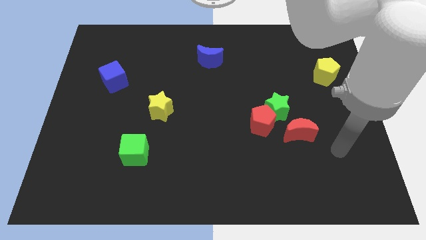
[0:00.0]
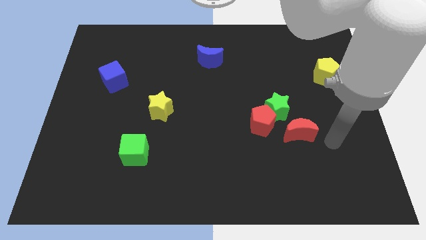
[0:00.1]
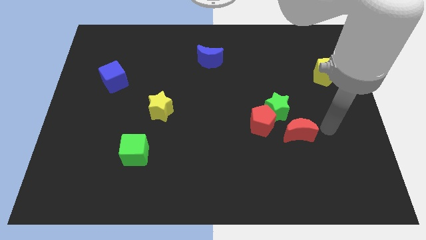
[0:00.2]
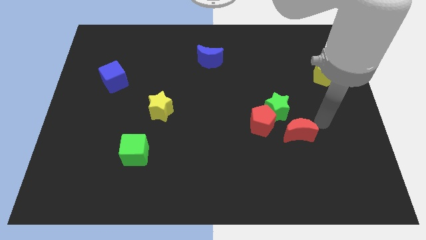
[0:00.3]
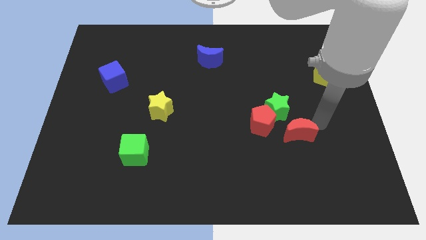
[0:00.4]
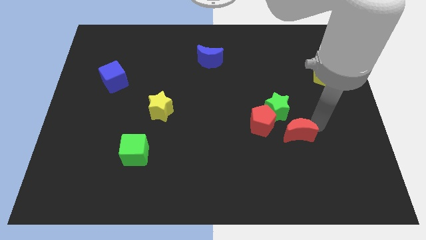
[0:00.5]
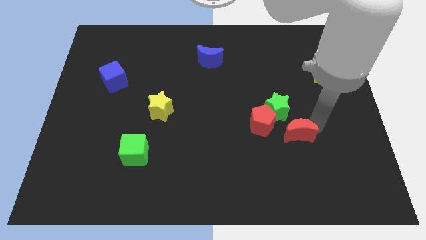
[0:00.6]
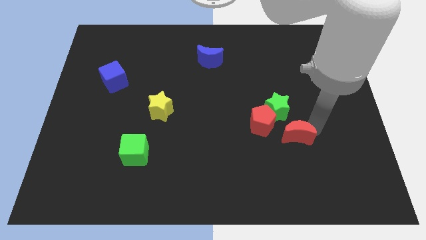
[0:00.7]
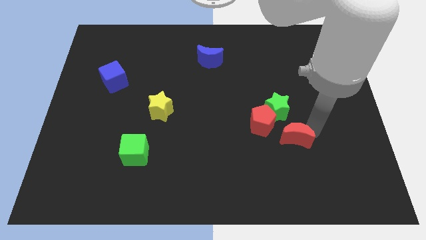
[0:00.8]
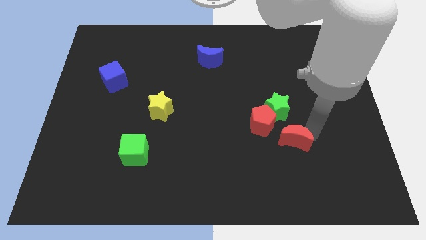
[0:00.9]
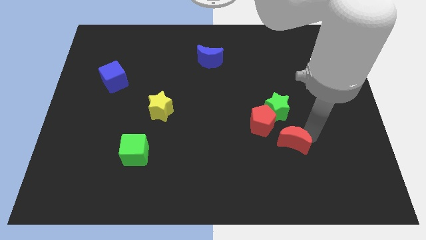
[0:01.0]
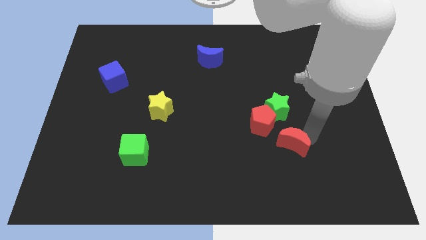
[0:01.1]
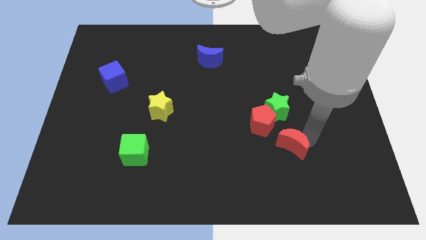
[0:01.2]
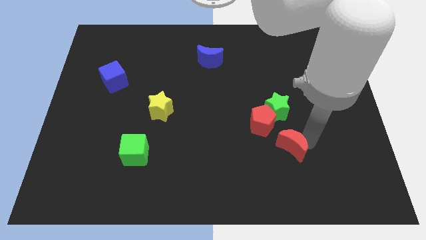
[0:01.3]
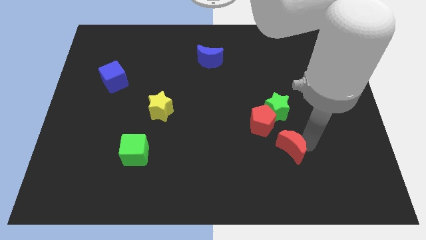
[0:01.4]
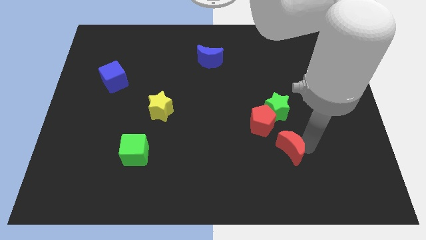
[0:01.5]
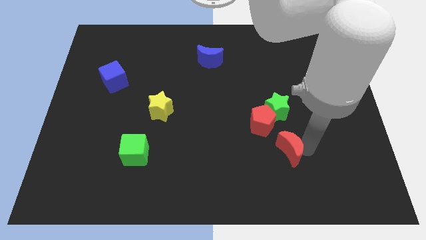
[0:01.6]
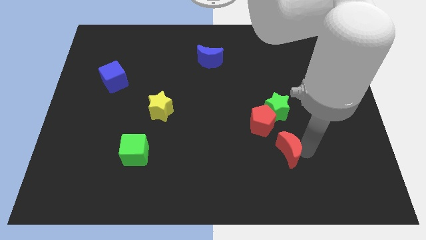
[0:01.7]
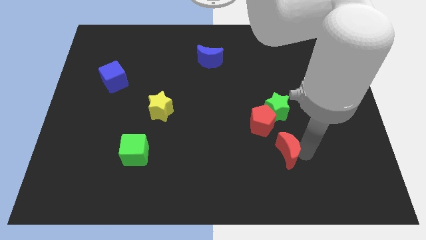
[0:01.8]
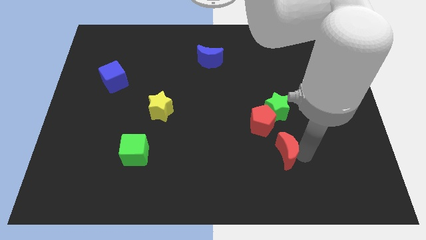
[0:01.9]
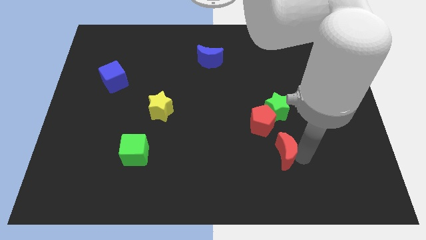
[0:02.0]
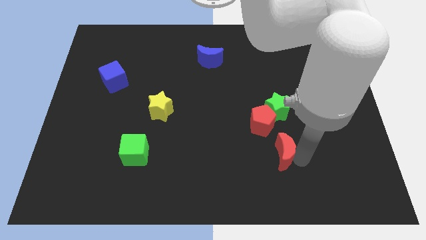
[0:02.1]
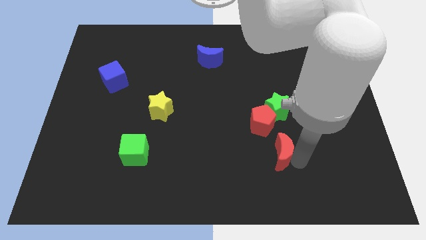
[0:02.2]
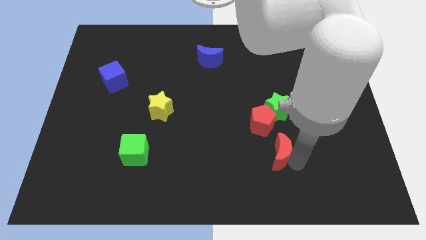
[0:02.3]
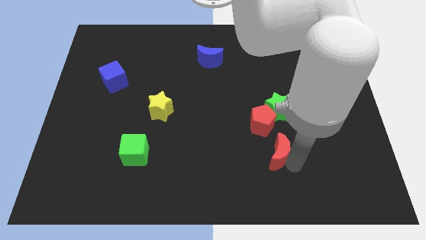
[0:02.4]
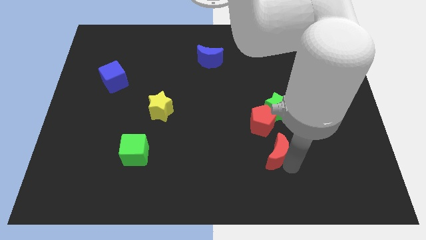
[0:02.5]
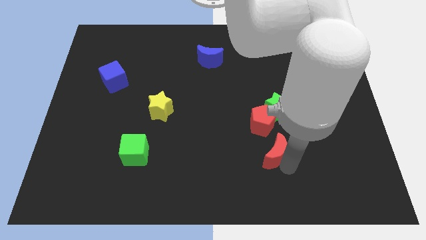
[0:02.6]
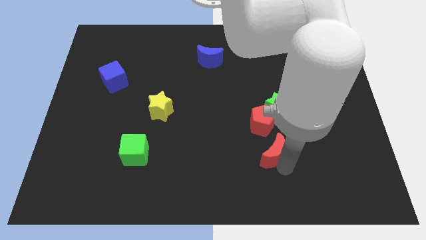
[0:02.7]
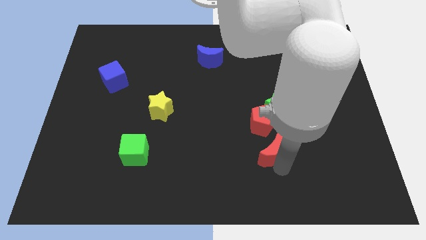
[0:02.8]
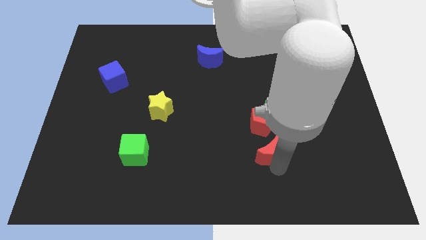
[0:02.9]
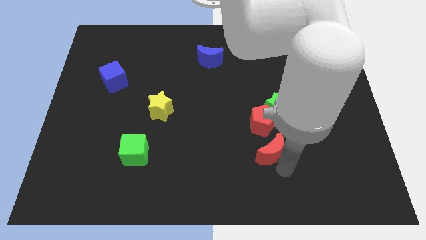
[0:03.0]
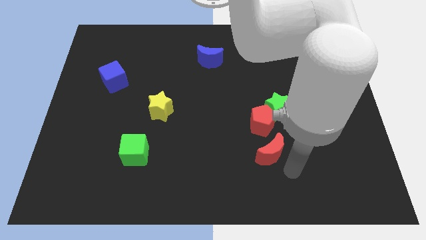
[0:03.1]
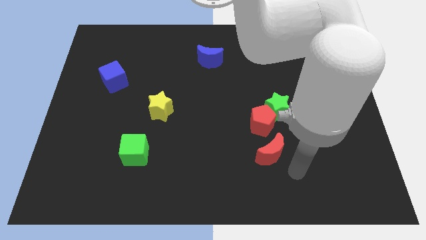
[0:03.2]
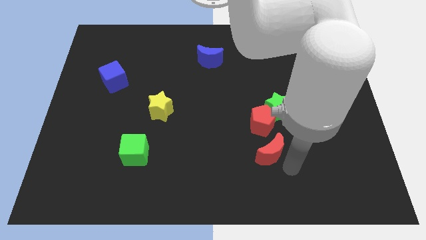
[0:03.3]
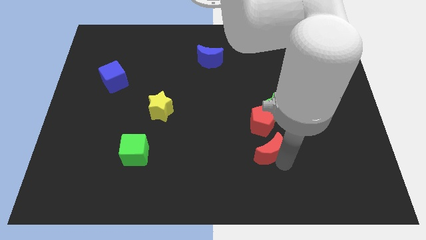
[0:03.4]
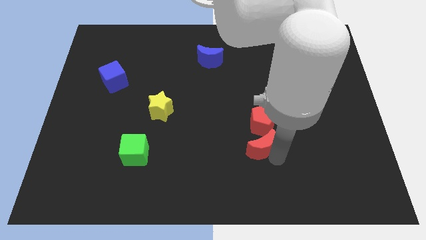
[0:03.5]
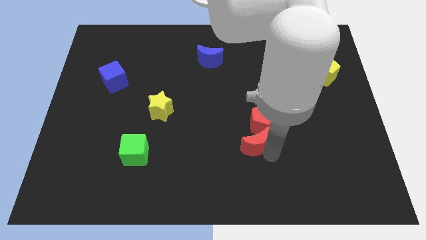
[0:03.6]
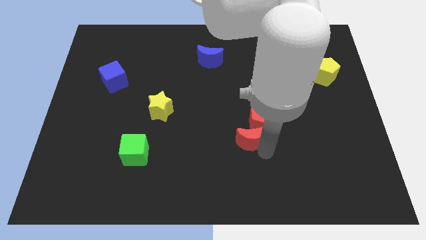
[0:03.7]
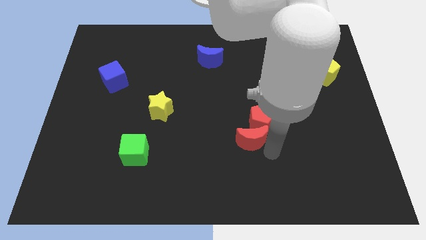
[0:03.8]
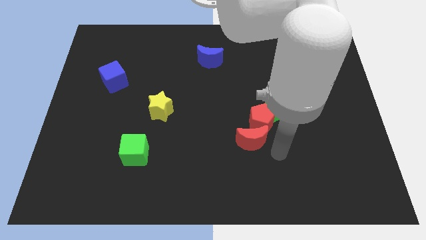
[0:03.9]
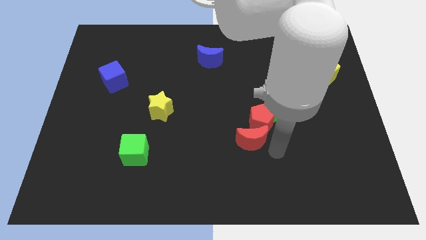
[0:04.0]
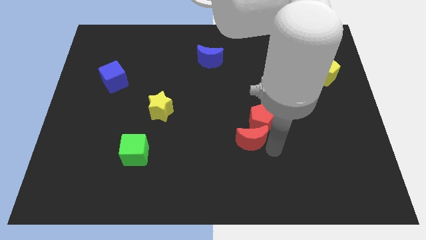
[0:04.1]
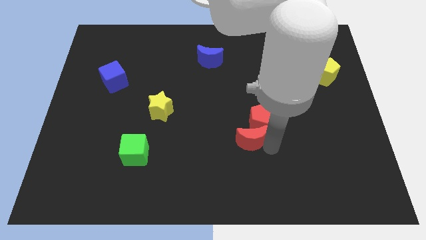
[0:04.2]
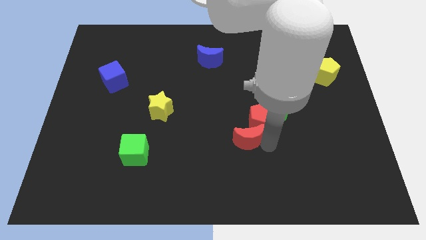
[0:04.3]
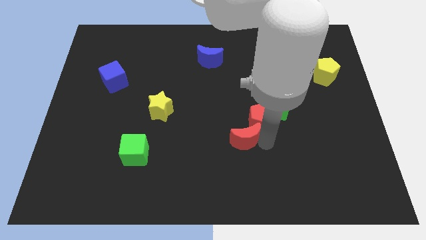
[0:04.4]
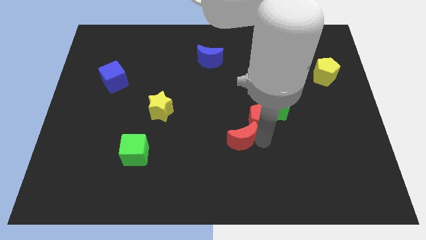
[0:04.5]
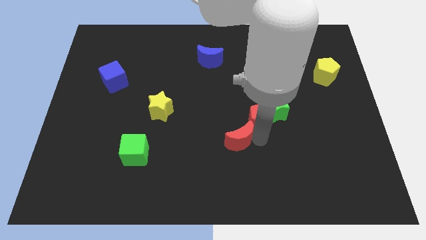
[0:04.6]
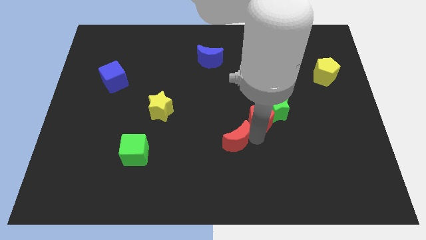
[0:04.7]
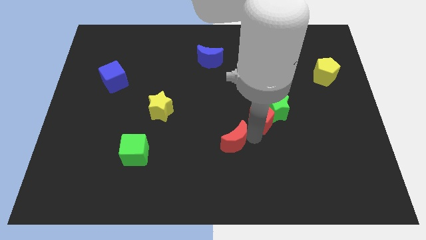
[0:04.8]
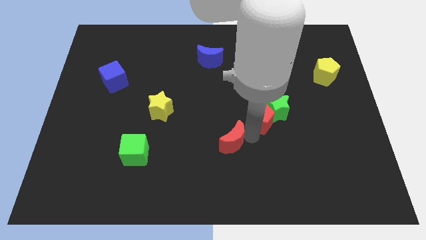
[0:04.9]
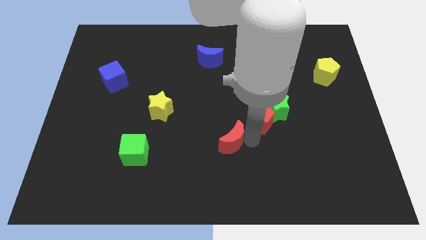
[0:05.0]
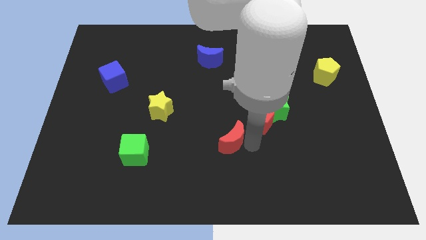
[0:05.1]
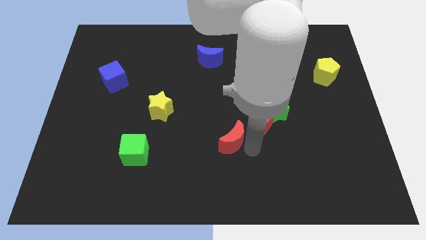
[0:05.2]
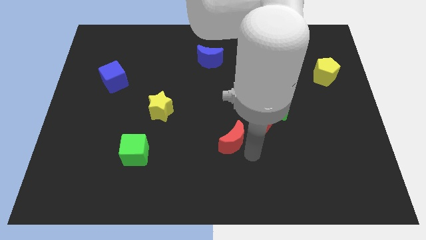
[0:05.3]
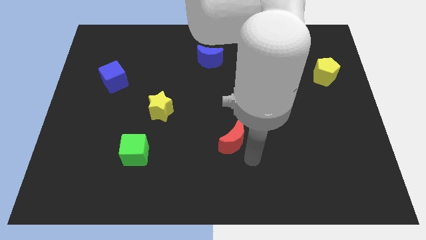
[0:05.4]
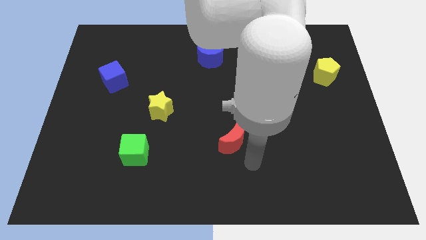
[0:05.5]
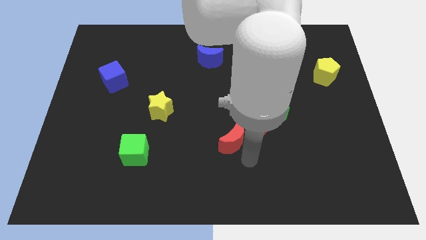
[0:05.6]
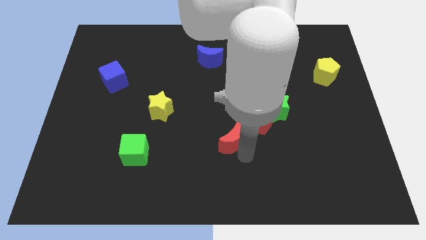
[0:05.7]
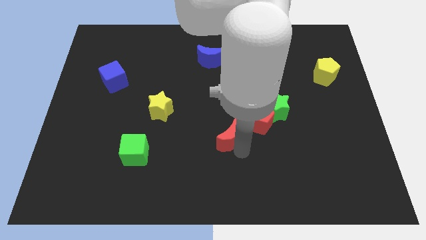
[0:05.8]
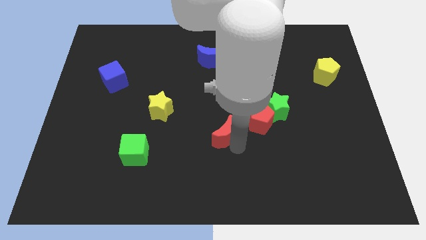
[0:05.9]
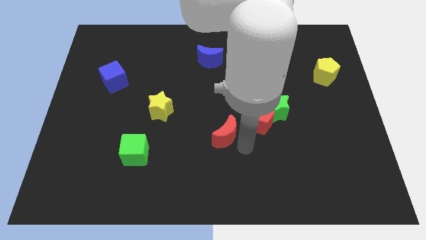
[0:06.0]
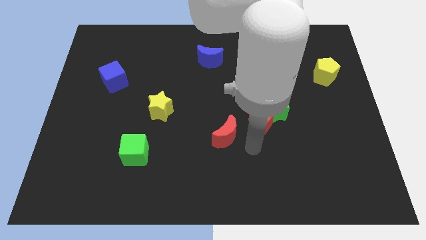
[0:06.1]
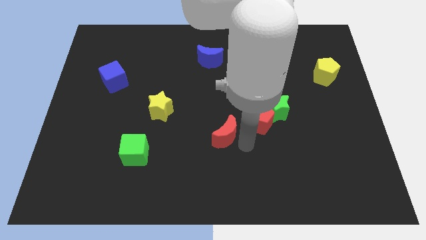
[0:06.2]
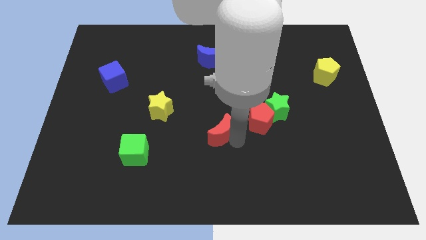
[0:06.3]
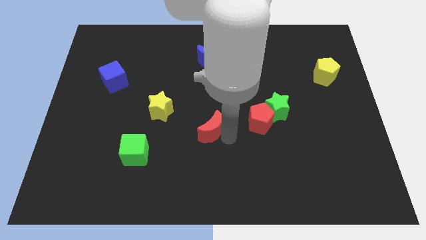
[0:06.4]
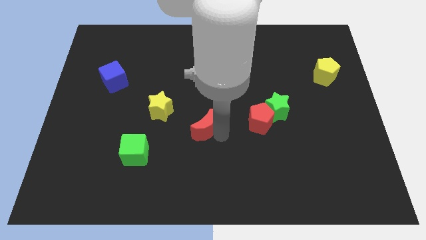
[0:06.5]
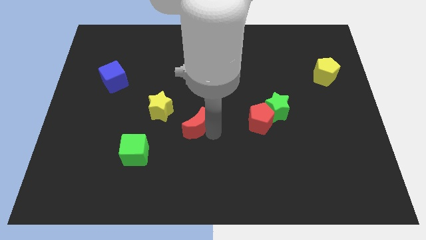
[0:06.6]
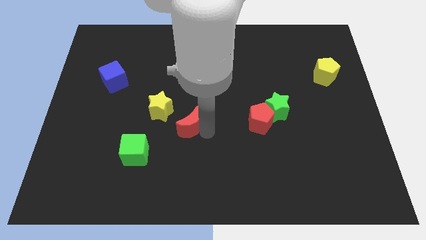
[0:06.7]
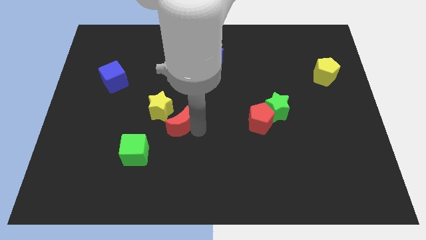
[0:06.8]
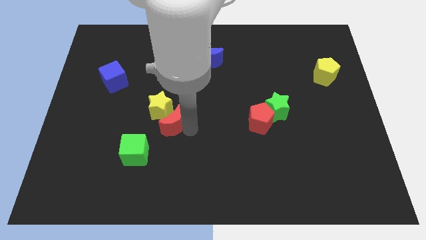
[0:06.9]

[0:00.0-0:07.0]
slide the red moon close to the yellow star
